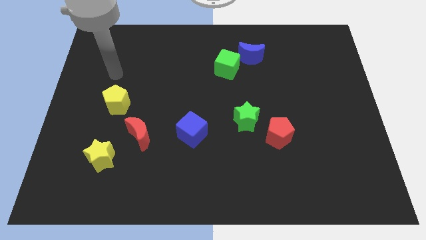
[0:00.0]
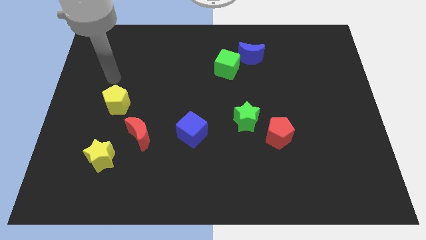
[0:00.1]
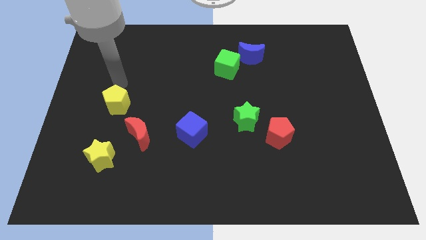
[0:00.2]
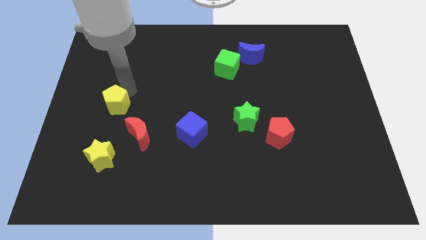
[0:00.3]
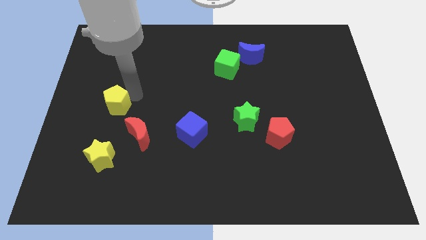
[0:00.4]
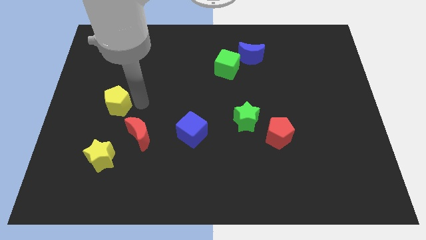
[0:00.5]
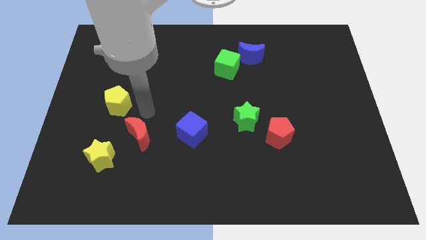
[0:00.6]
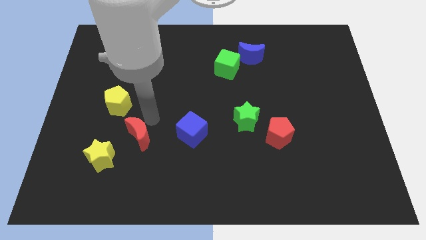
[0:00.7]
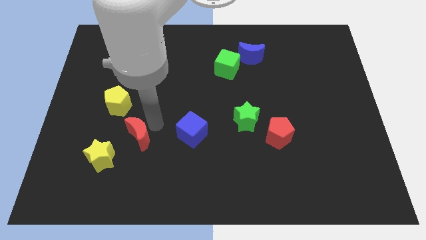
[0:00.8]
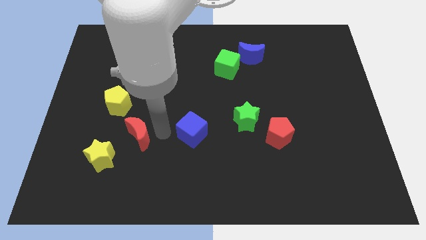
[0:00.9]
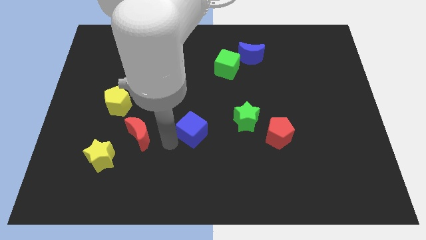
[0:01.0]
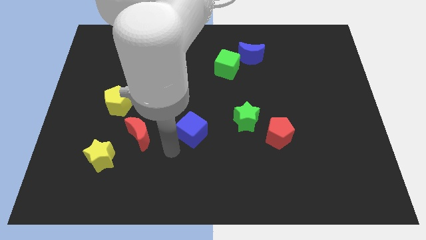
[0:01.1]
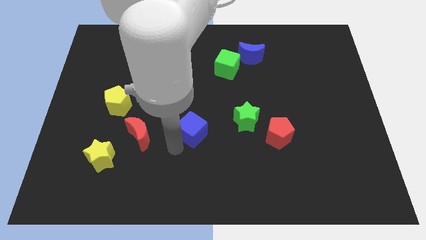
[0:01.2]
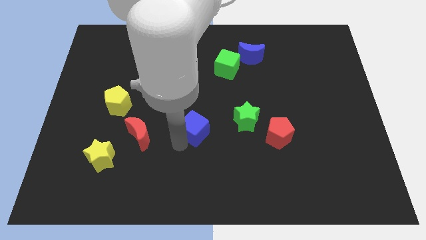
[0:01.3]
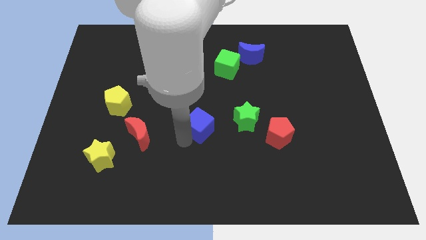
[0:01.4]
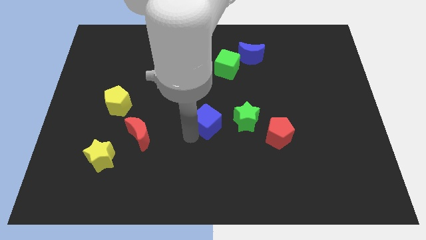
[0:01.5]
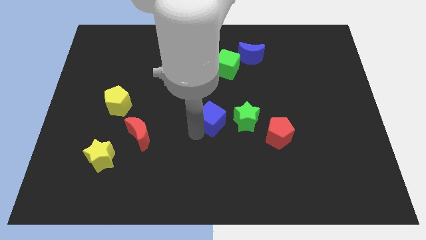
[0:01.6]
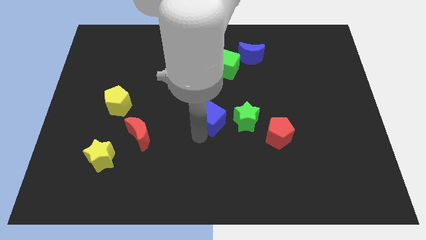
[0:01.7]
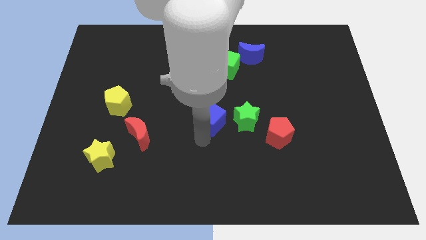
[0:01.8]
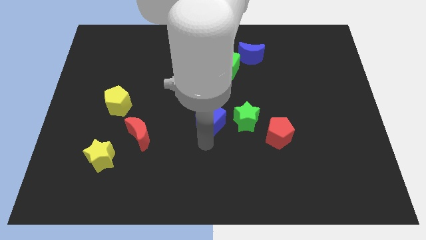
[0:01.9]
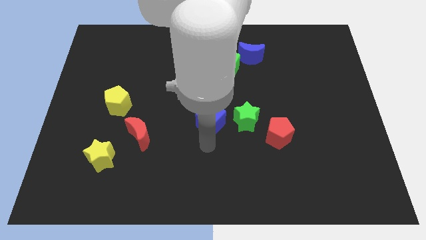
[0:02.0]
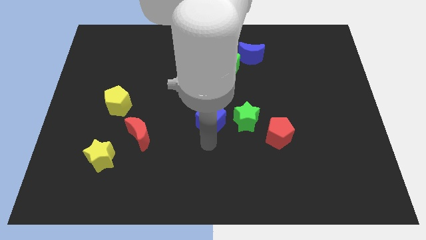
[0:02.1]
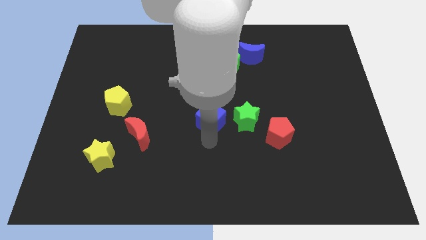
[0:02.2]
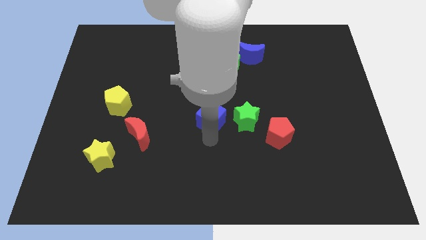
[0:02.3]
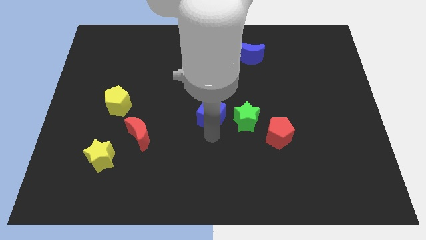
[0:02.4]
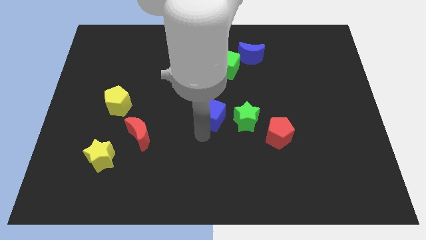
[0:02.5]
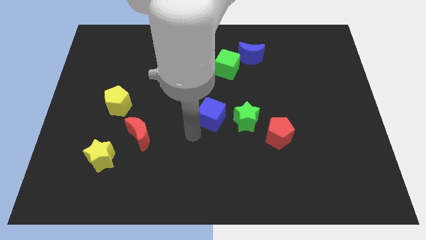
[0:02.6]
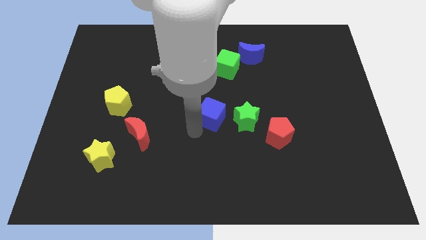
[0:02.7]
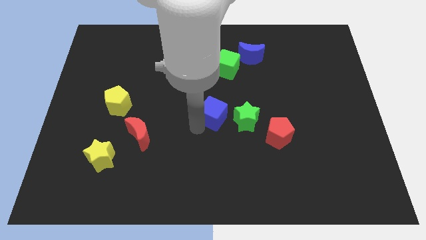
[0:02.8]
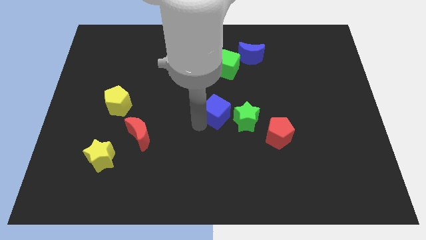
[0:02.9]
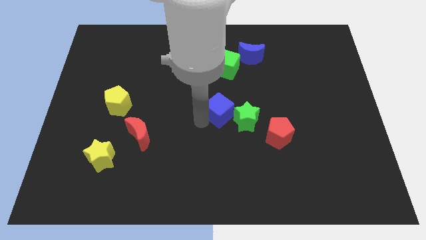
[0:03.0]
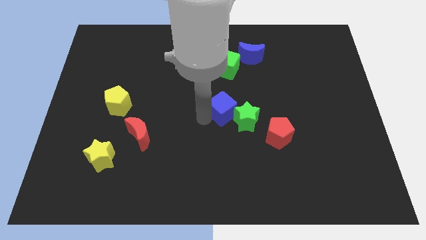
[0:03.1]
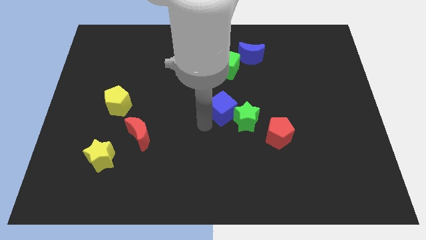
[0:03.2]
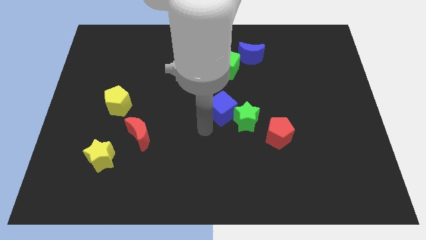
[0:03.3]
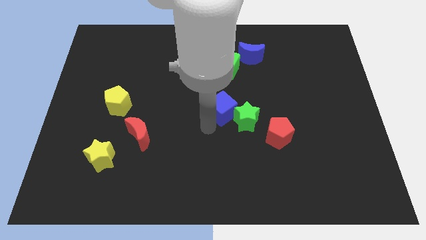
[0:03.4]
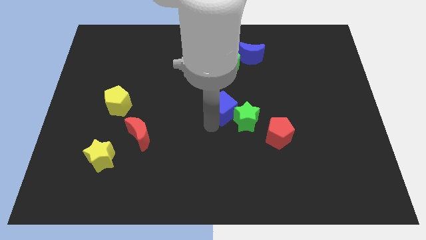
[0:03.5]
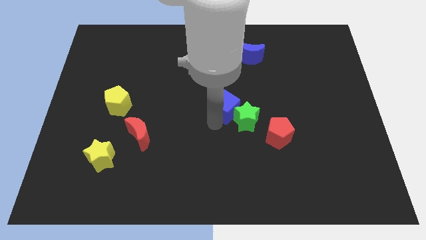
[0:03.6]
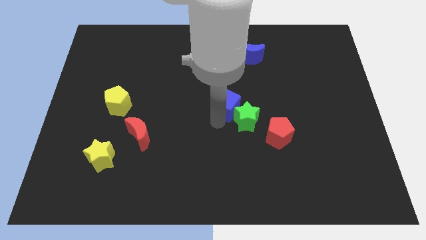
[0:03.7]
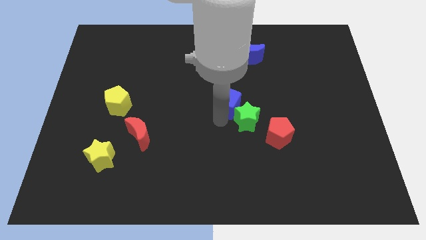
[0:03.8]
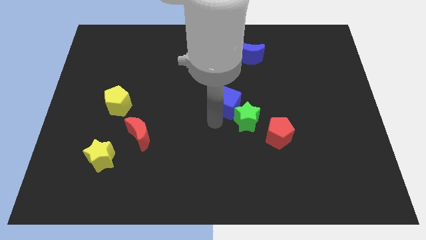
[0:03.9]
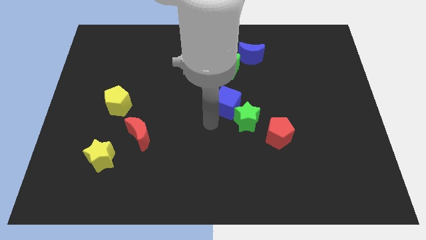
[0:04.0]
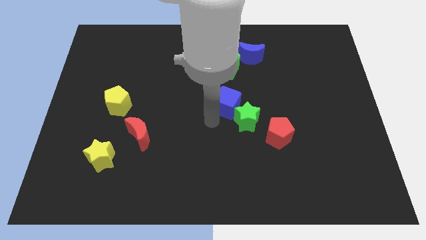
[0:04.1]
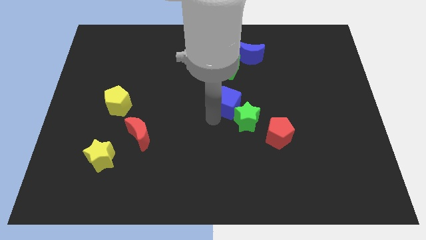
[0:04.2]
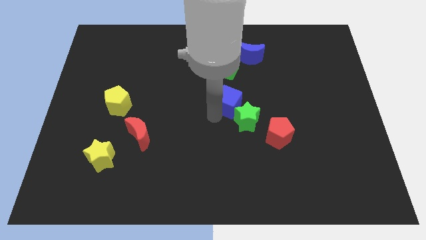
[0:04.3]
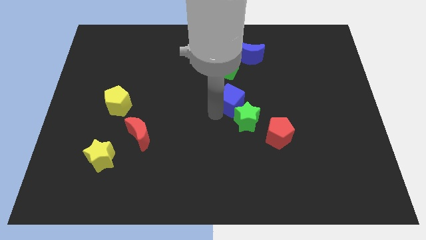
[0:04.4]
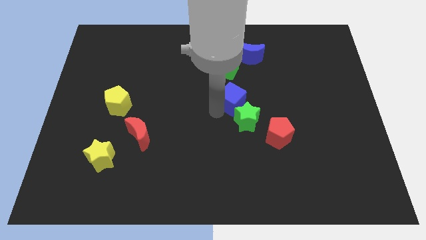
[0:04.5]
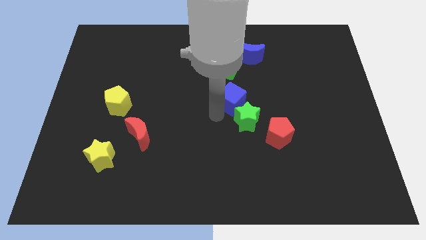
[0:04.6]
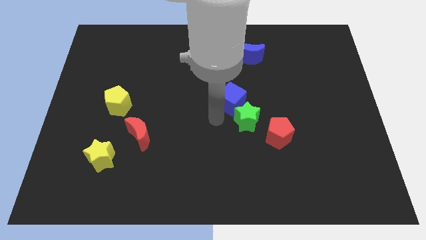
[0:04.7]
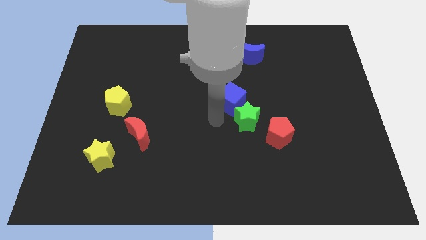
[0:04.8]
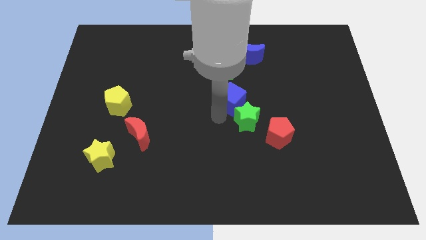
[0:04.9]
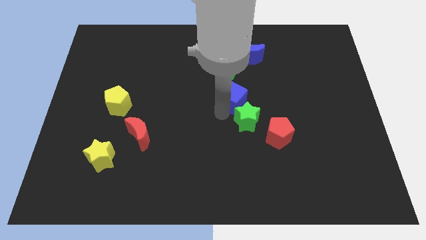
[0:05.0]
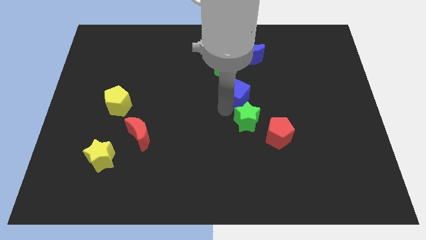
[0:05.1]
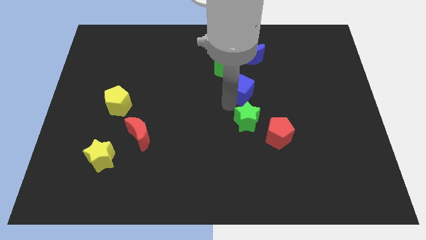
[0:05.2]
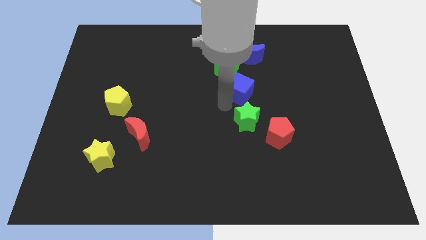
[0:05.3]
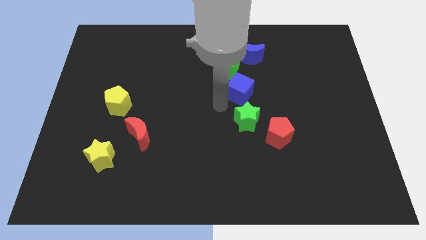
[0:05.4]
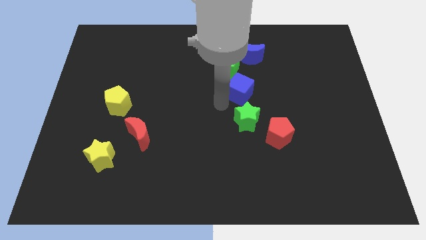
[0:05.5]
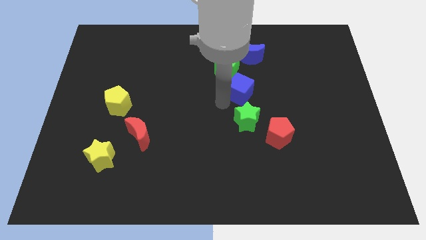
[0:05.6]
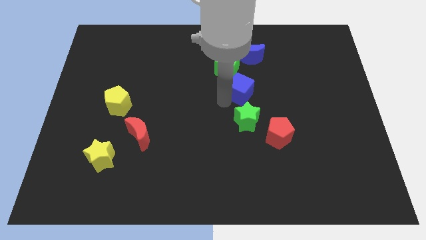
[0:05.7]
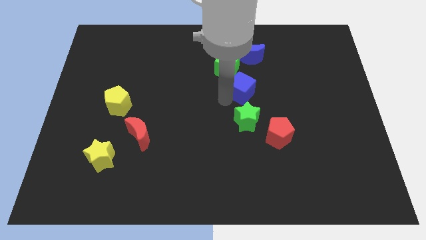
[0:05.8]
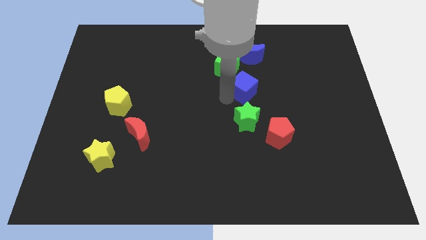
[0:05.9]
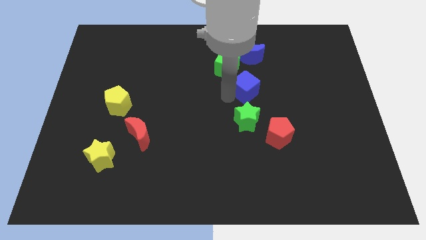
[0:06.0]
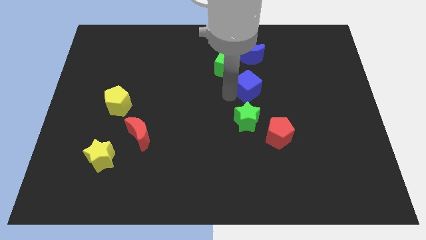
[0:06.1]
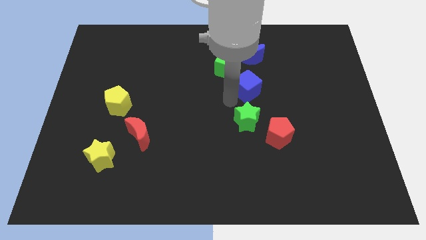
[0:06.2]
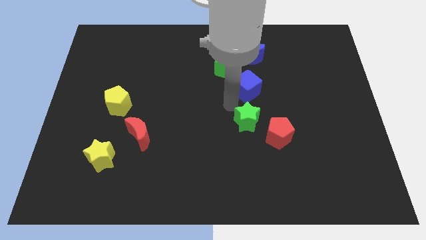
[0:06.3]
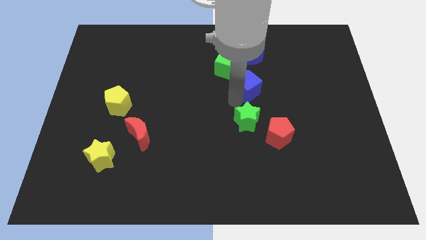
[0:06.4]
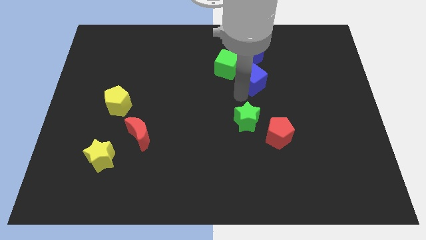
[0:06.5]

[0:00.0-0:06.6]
move the blue cube up and right diagonally

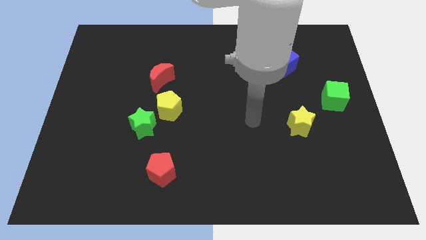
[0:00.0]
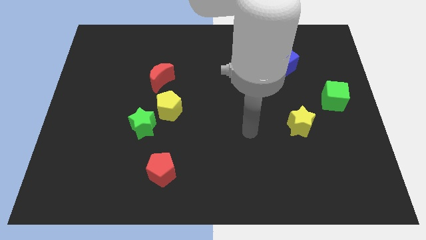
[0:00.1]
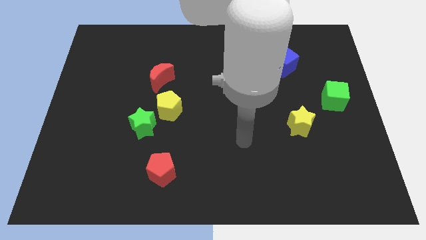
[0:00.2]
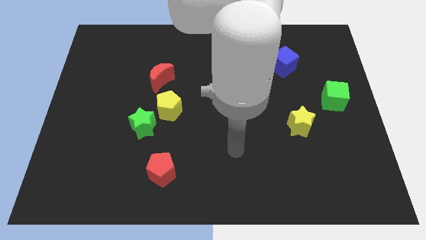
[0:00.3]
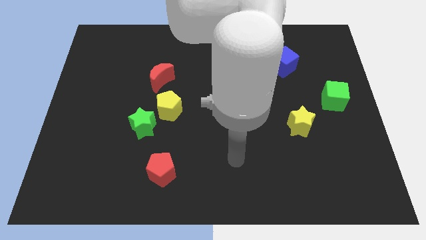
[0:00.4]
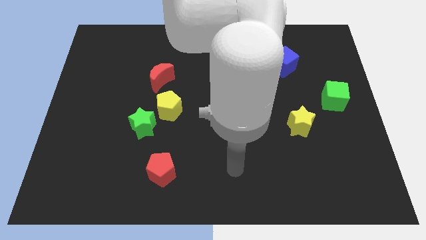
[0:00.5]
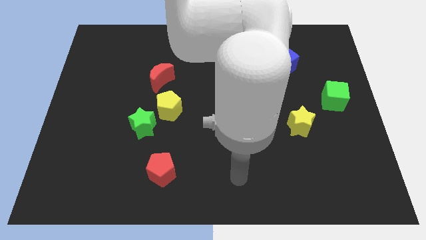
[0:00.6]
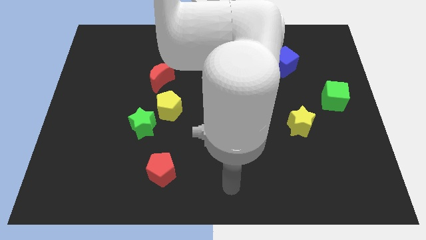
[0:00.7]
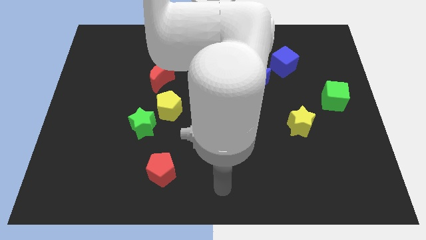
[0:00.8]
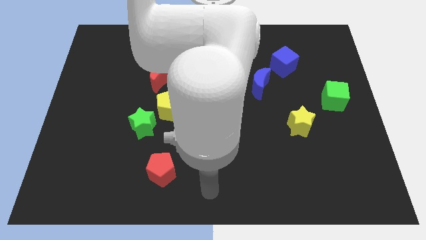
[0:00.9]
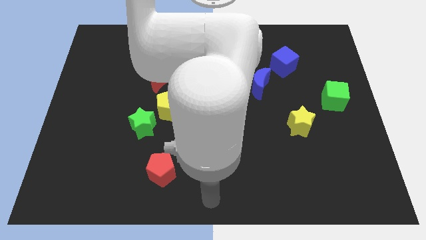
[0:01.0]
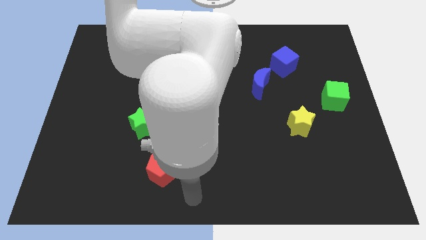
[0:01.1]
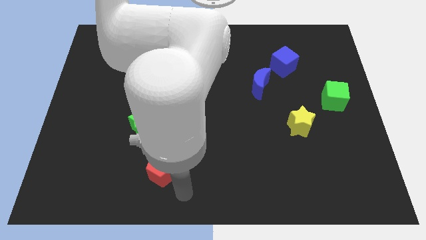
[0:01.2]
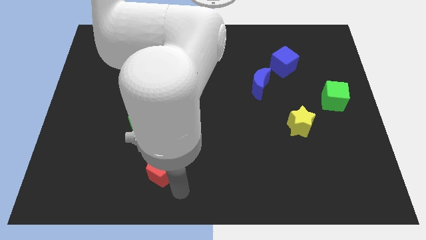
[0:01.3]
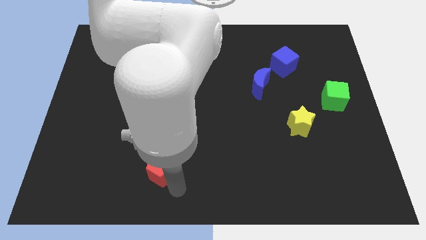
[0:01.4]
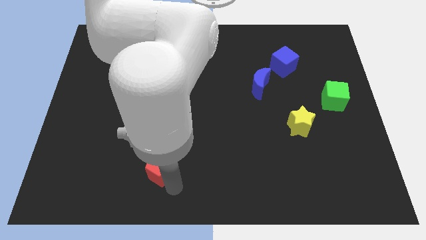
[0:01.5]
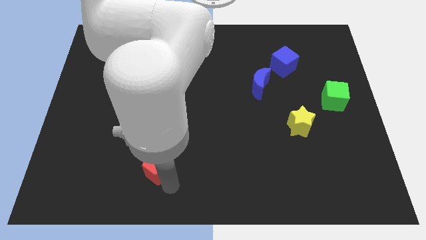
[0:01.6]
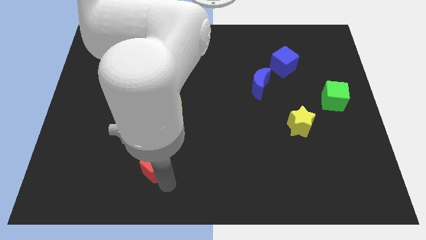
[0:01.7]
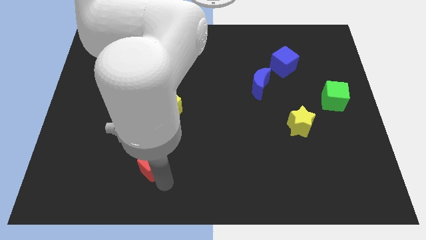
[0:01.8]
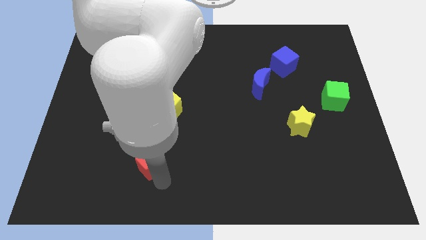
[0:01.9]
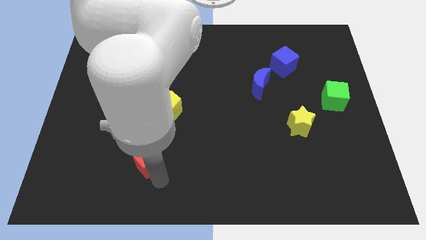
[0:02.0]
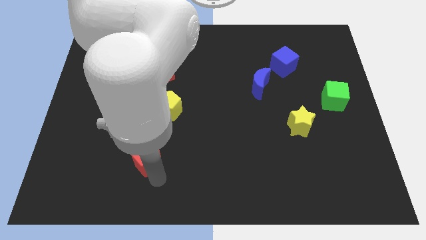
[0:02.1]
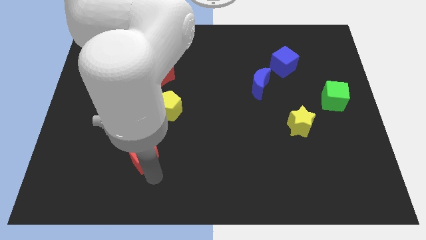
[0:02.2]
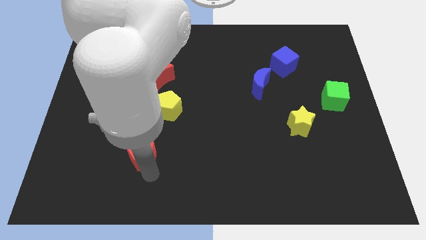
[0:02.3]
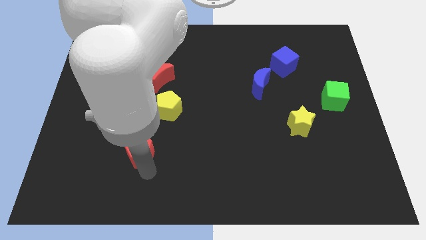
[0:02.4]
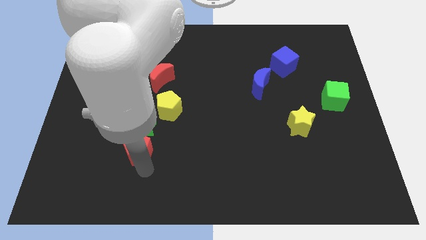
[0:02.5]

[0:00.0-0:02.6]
slide the red pentagon slightly diagonally upwards and left
